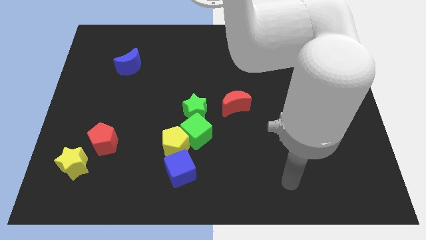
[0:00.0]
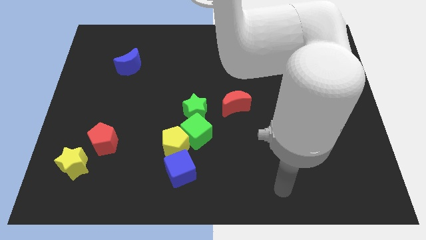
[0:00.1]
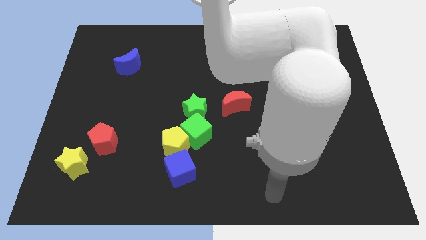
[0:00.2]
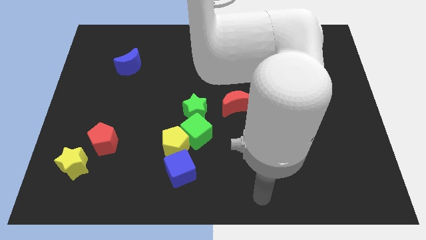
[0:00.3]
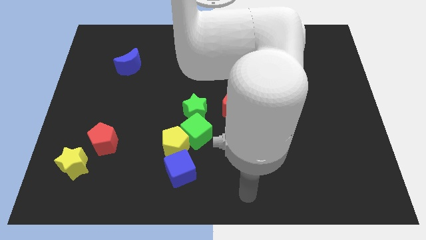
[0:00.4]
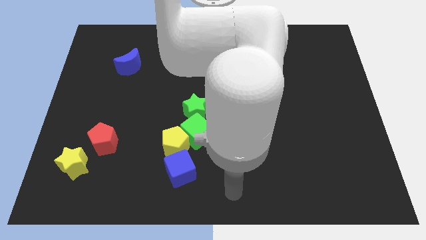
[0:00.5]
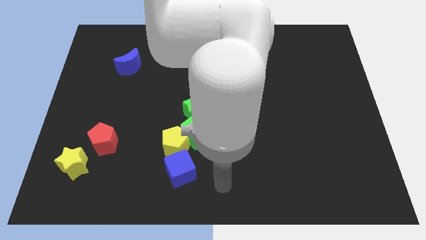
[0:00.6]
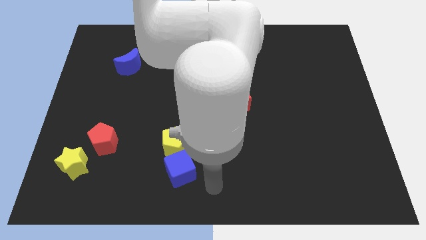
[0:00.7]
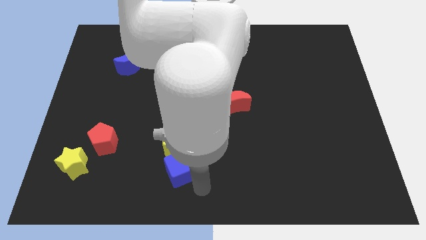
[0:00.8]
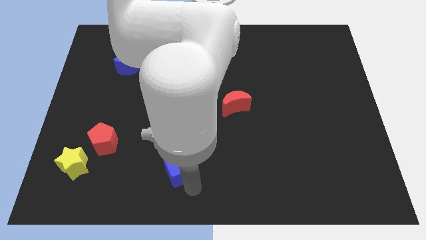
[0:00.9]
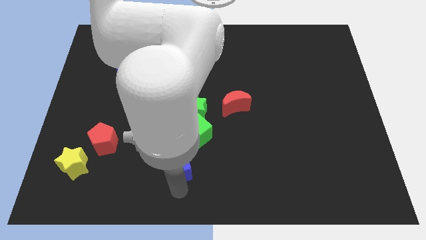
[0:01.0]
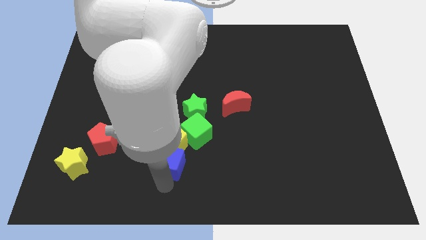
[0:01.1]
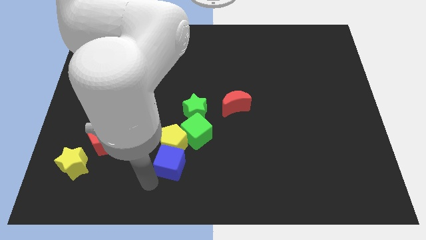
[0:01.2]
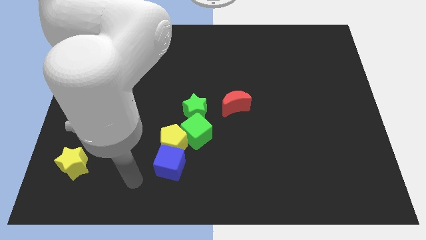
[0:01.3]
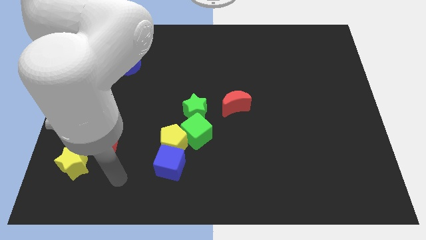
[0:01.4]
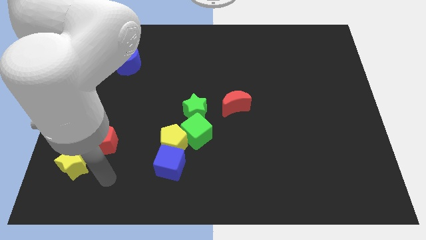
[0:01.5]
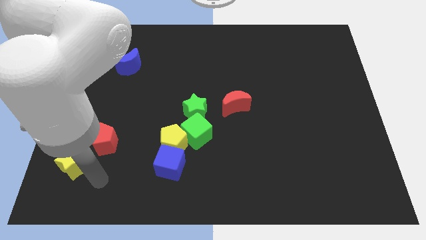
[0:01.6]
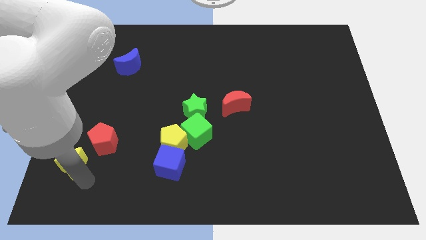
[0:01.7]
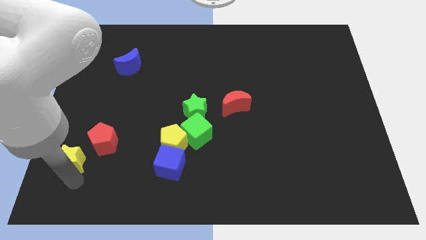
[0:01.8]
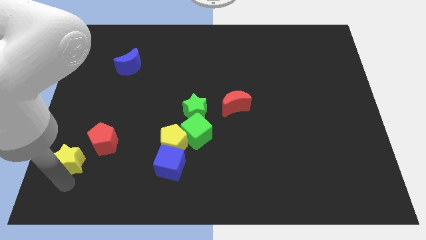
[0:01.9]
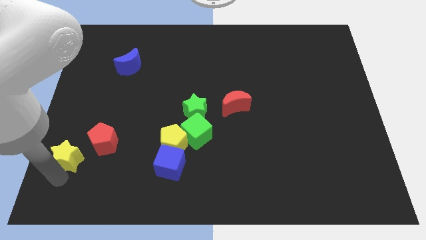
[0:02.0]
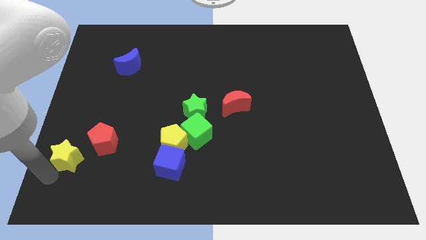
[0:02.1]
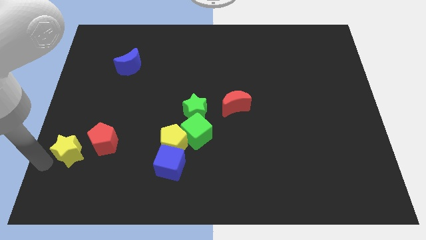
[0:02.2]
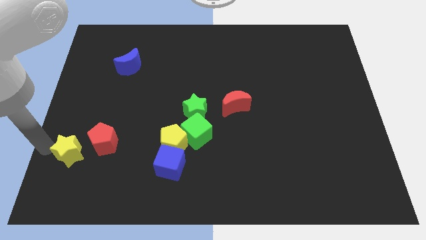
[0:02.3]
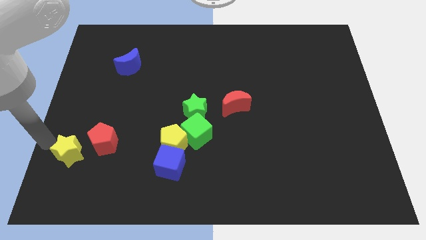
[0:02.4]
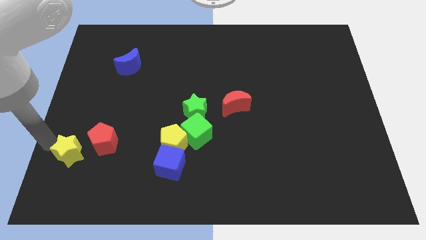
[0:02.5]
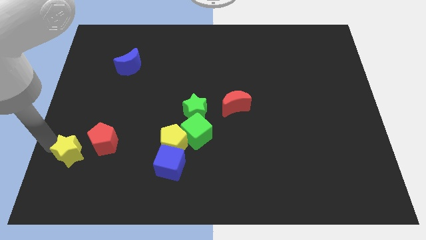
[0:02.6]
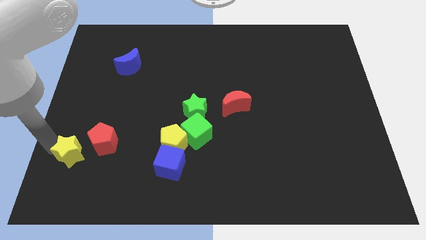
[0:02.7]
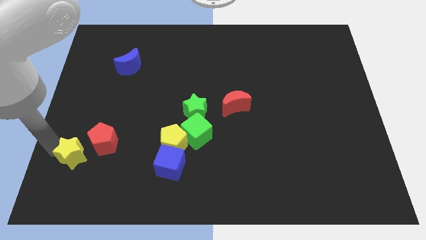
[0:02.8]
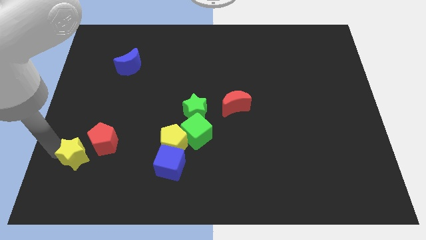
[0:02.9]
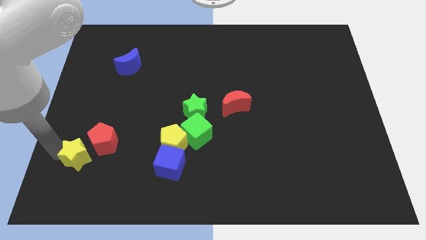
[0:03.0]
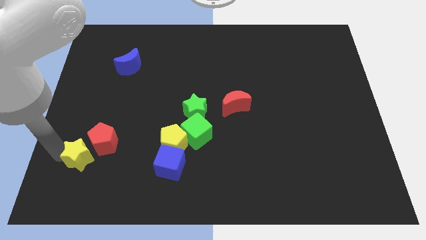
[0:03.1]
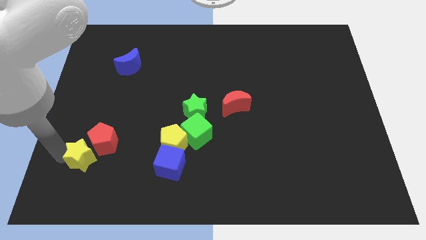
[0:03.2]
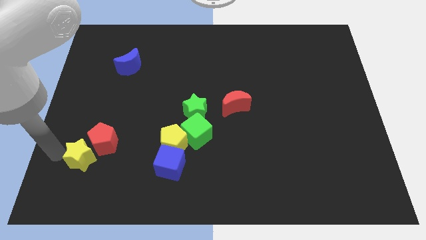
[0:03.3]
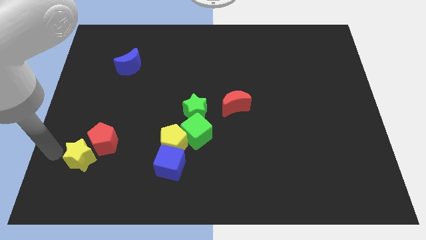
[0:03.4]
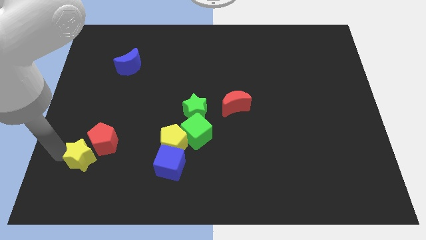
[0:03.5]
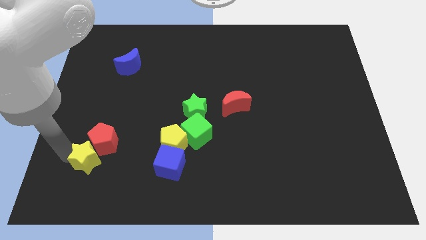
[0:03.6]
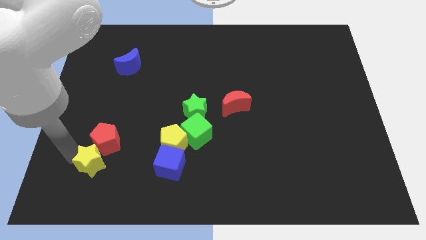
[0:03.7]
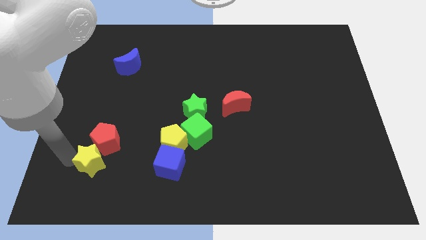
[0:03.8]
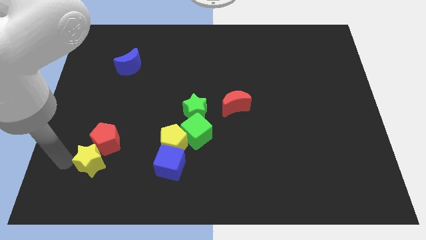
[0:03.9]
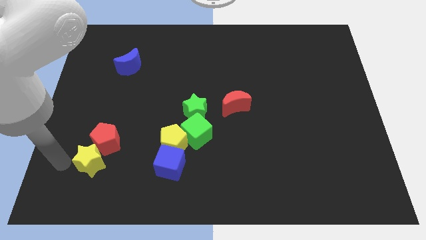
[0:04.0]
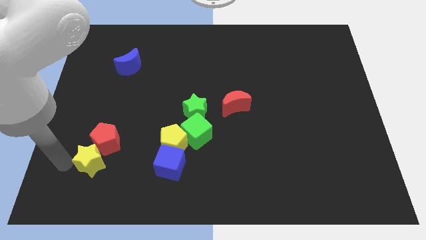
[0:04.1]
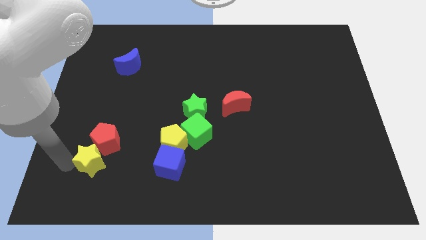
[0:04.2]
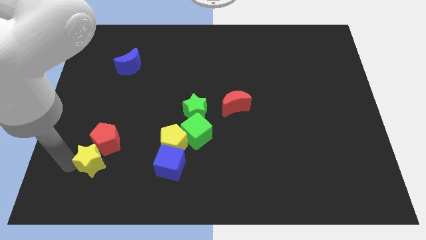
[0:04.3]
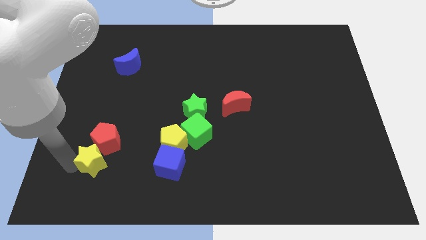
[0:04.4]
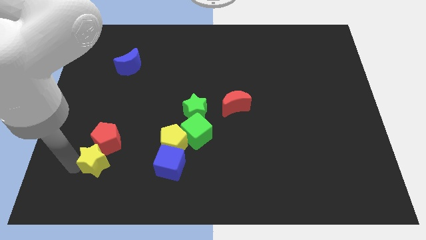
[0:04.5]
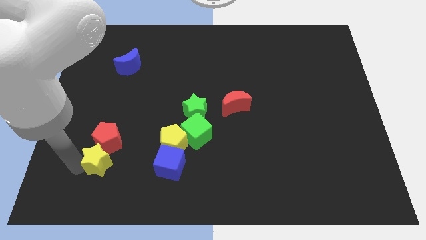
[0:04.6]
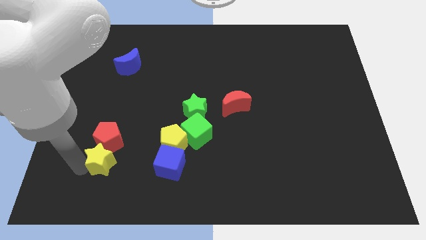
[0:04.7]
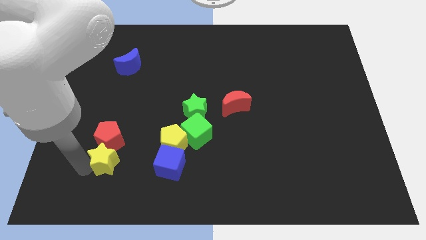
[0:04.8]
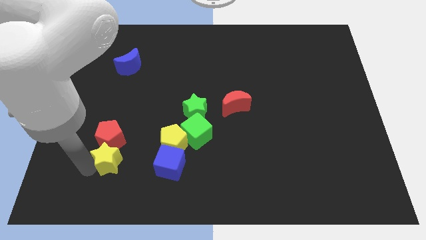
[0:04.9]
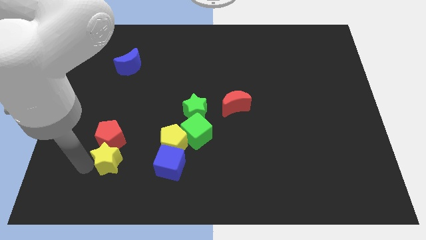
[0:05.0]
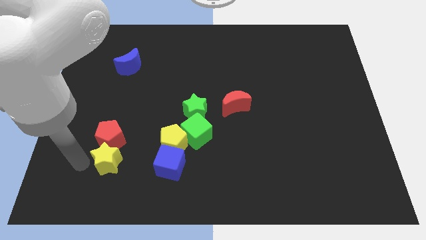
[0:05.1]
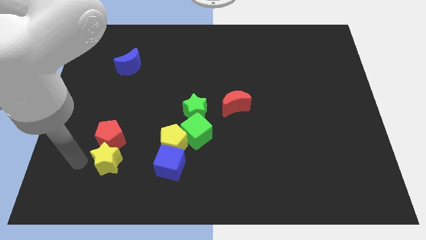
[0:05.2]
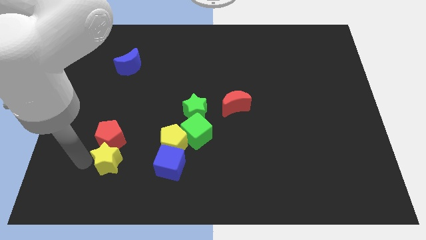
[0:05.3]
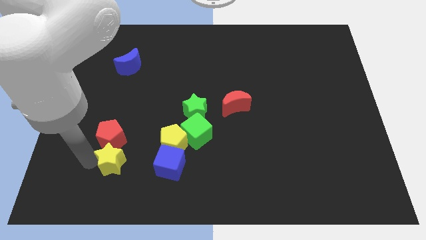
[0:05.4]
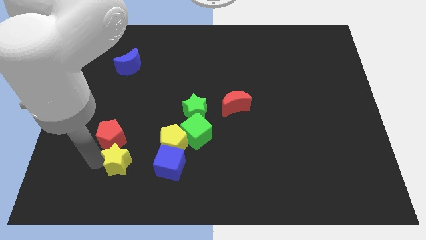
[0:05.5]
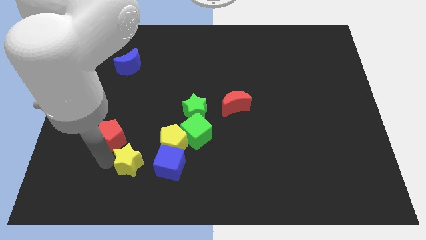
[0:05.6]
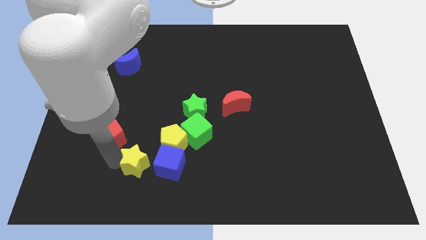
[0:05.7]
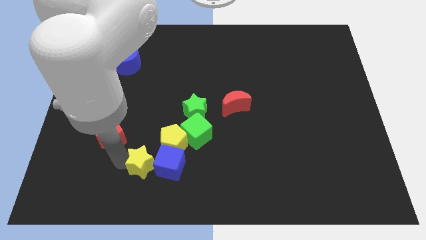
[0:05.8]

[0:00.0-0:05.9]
put the yellow star next to the blue cube

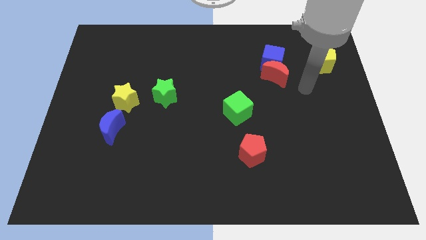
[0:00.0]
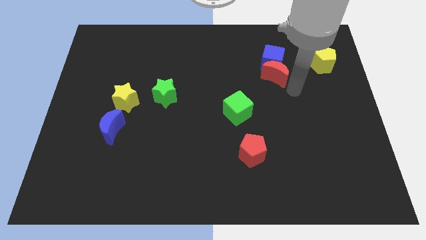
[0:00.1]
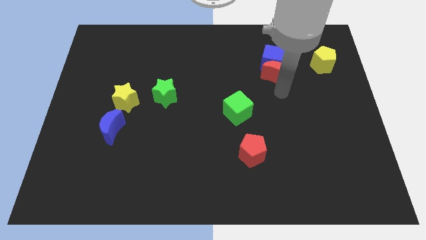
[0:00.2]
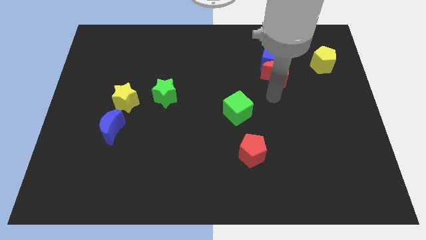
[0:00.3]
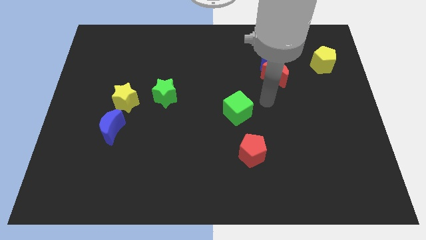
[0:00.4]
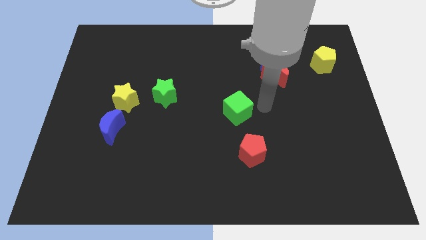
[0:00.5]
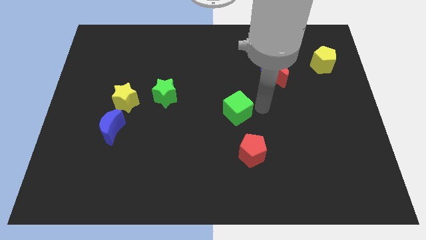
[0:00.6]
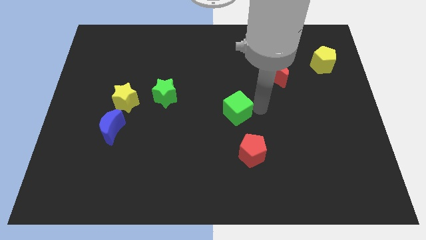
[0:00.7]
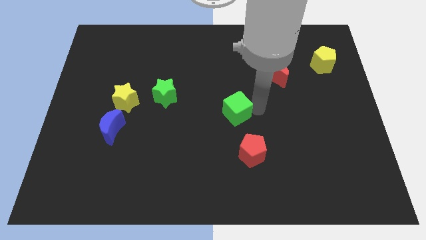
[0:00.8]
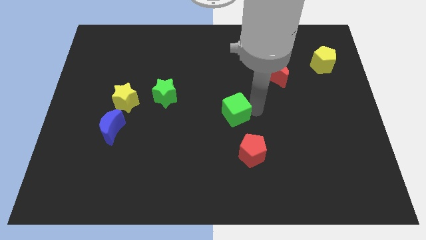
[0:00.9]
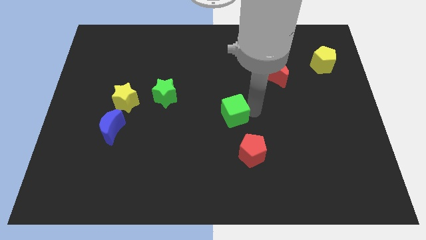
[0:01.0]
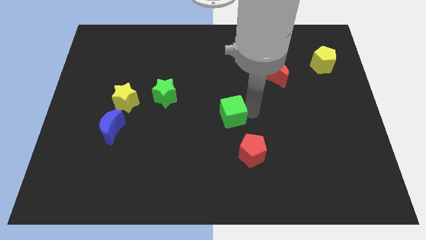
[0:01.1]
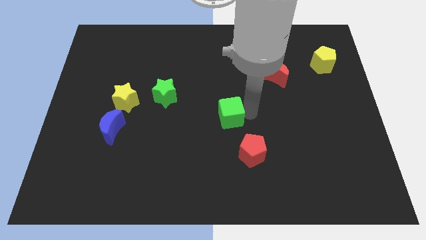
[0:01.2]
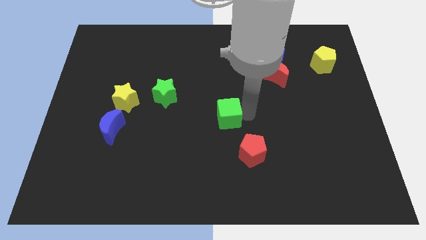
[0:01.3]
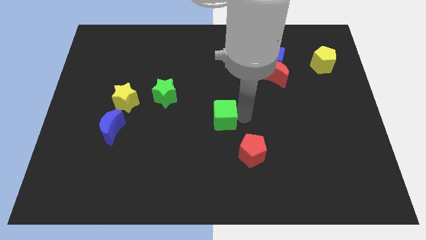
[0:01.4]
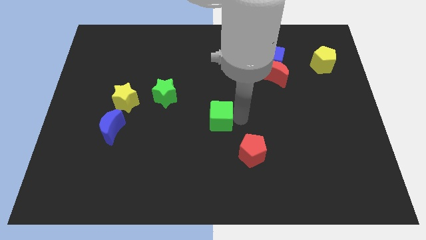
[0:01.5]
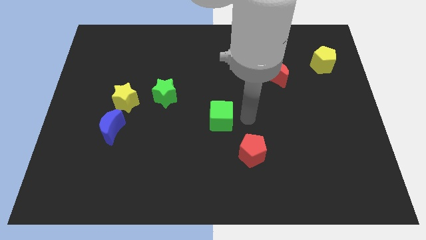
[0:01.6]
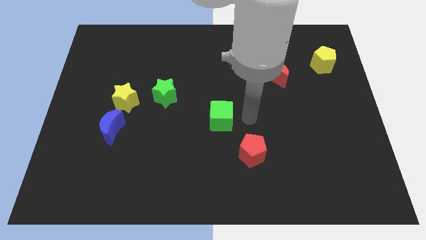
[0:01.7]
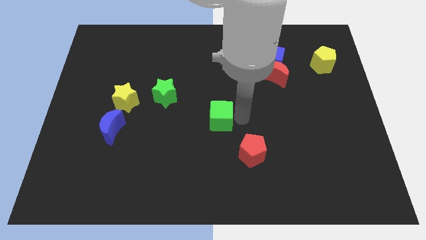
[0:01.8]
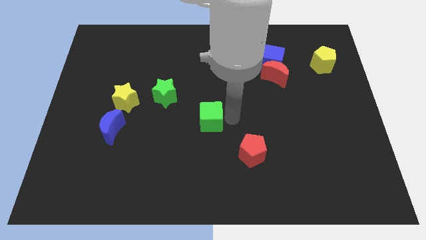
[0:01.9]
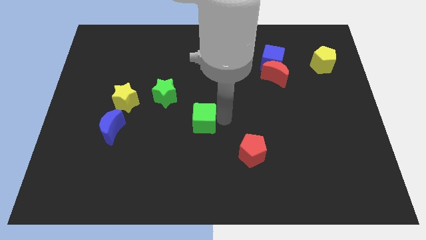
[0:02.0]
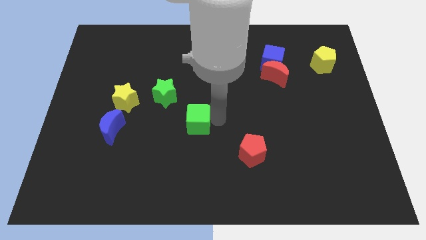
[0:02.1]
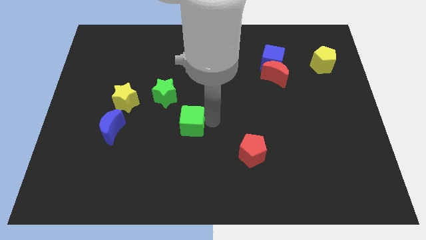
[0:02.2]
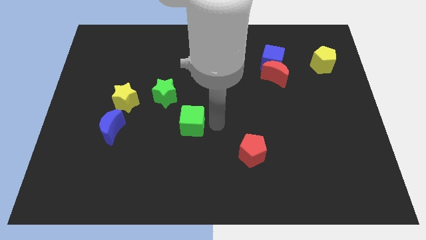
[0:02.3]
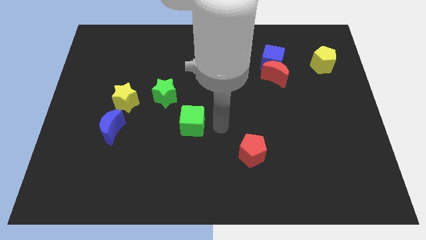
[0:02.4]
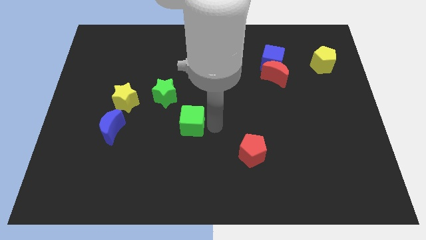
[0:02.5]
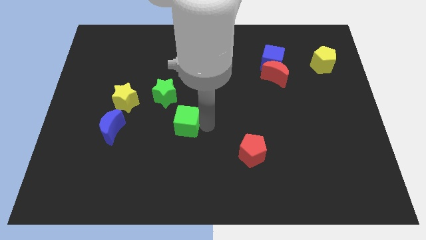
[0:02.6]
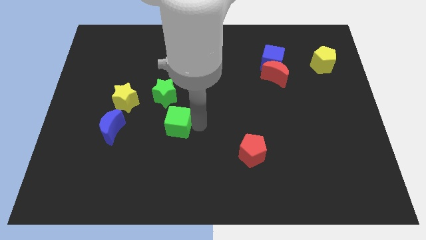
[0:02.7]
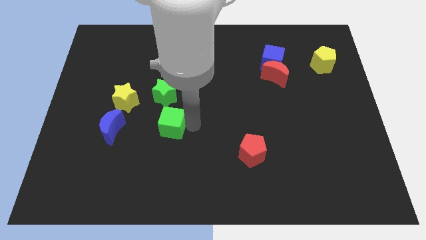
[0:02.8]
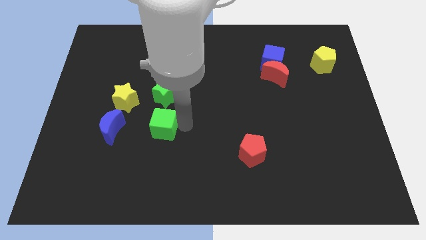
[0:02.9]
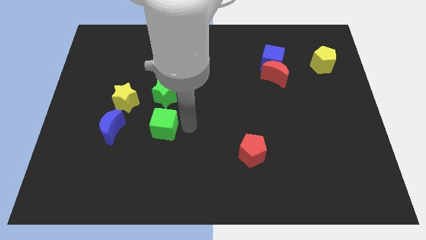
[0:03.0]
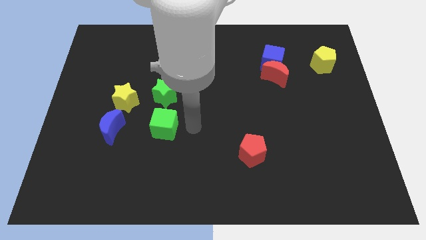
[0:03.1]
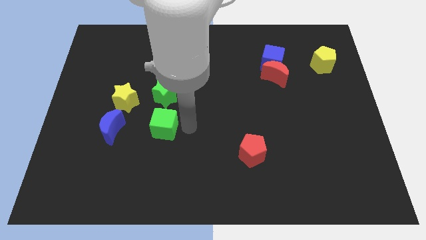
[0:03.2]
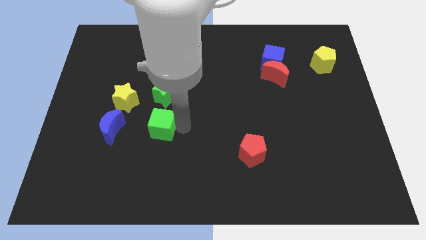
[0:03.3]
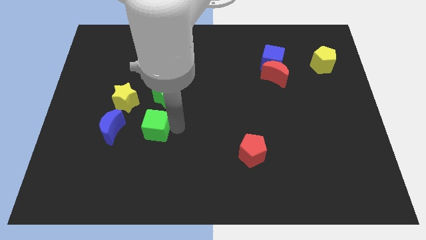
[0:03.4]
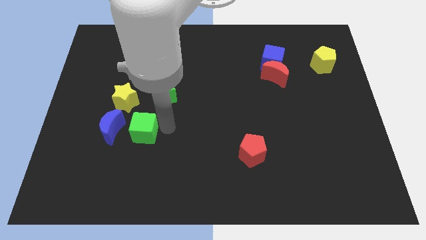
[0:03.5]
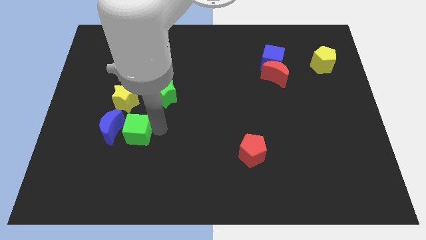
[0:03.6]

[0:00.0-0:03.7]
push the green cube to the blue moon
